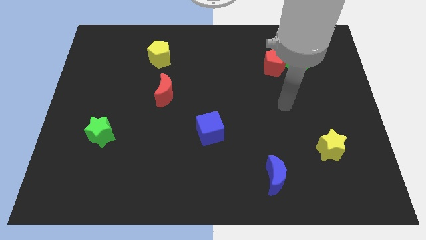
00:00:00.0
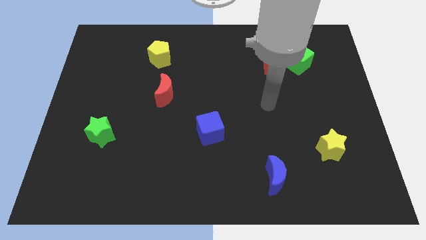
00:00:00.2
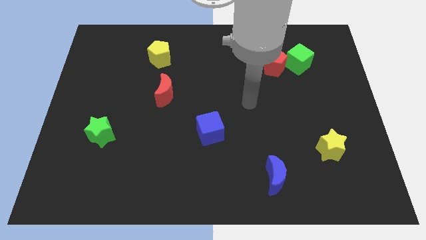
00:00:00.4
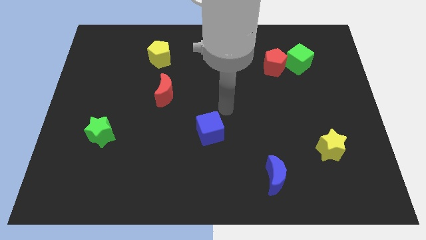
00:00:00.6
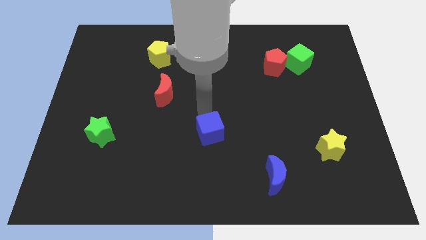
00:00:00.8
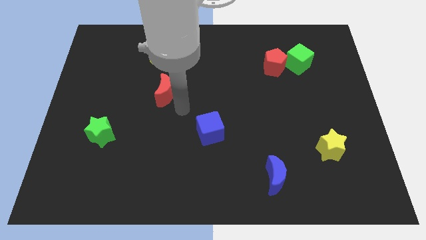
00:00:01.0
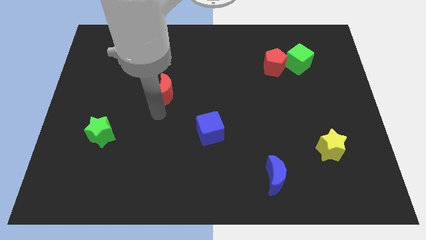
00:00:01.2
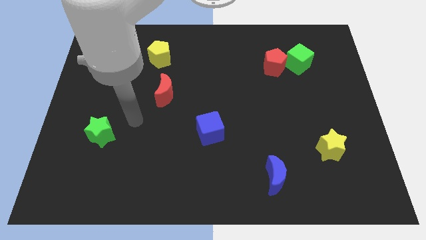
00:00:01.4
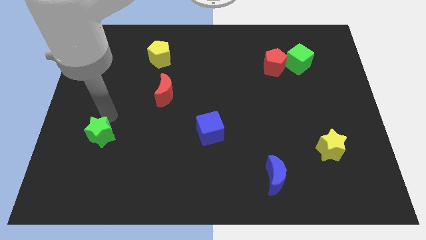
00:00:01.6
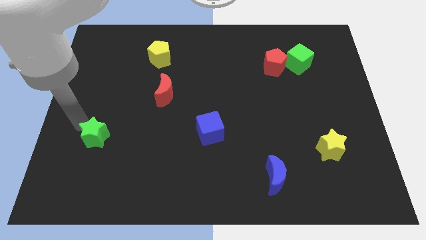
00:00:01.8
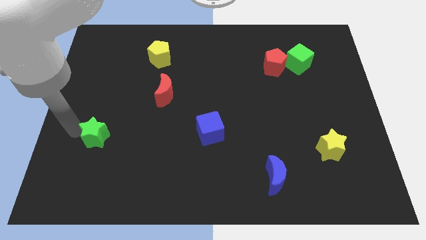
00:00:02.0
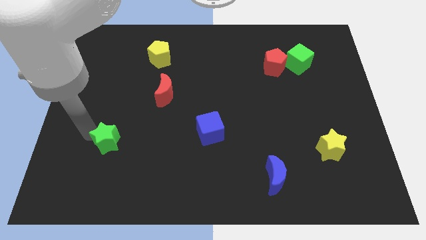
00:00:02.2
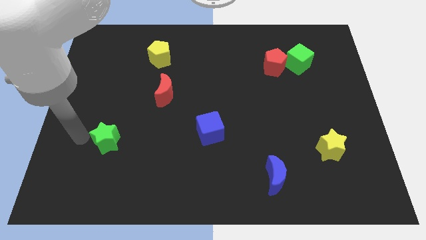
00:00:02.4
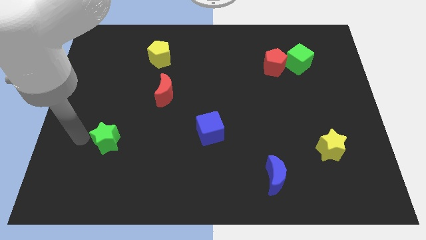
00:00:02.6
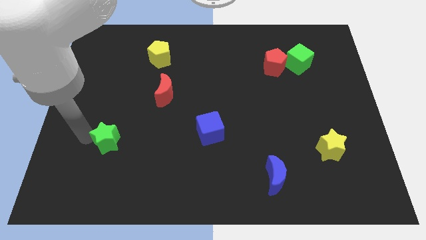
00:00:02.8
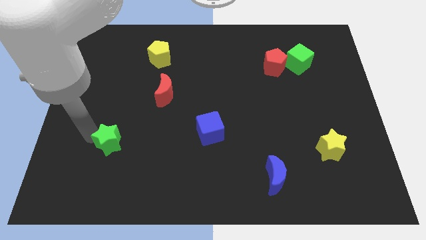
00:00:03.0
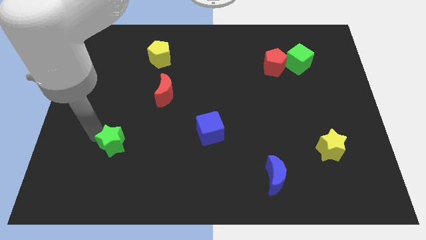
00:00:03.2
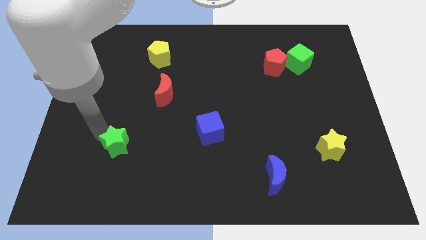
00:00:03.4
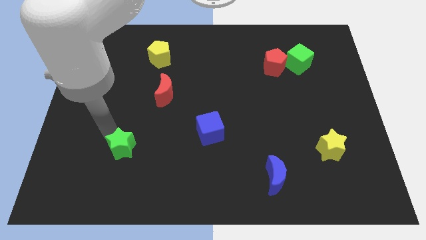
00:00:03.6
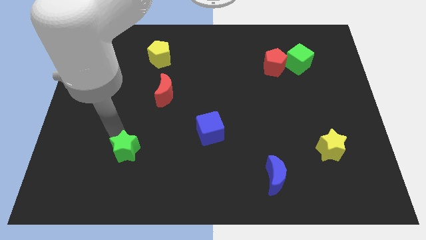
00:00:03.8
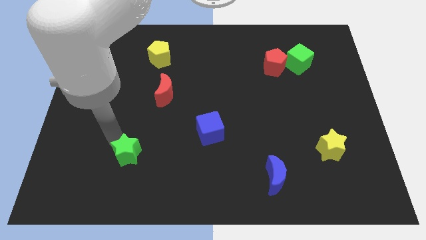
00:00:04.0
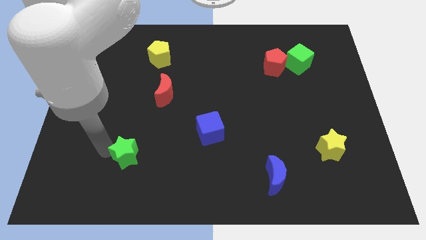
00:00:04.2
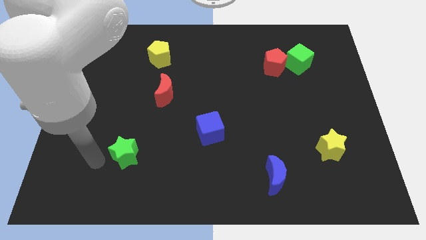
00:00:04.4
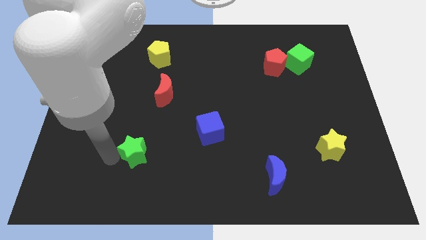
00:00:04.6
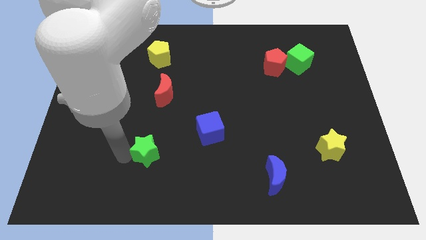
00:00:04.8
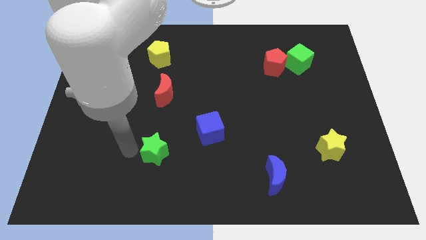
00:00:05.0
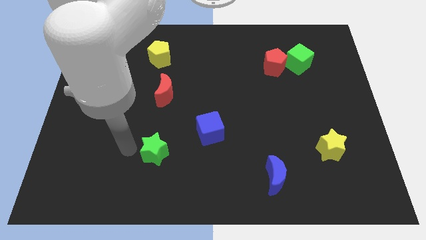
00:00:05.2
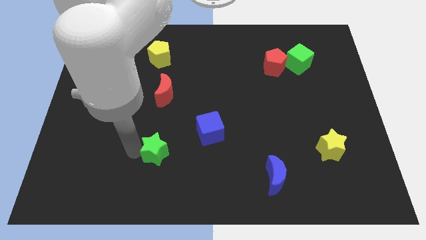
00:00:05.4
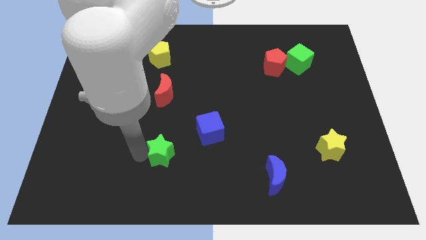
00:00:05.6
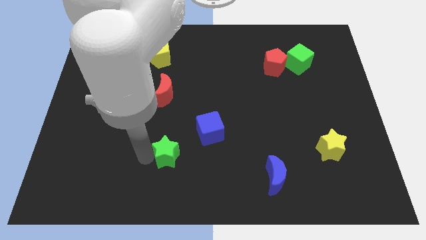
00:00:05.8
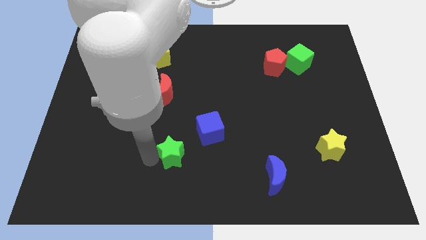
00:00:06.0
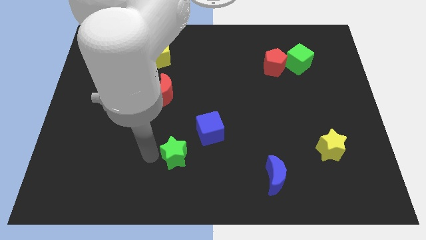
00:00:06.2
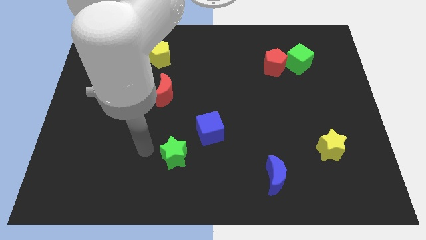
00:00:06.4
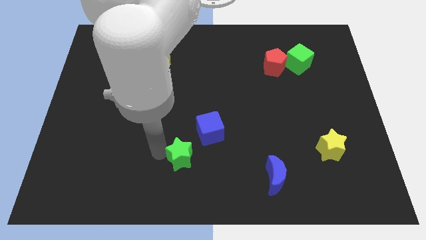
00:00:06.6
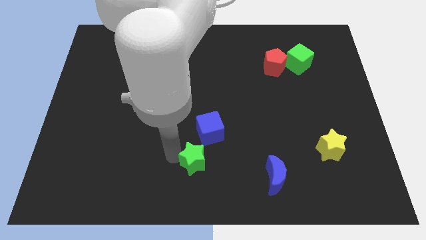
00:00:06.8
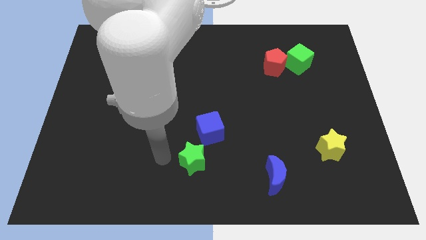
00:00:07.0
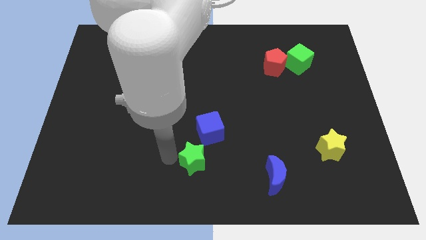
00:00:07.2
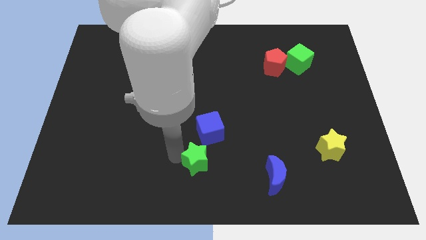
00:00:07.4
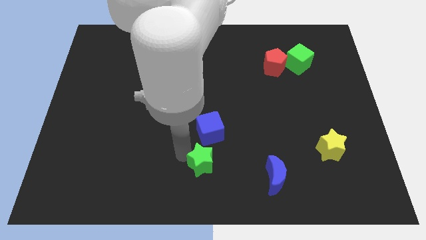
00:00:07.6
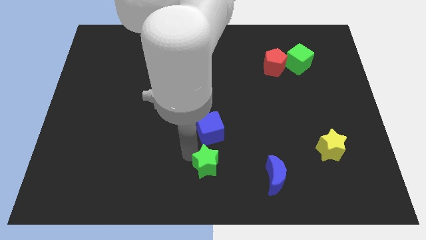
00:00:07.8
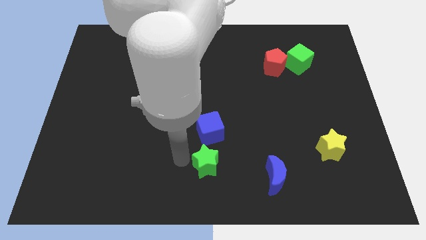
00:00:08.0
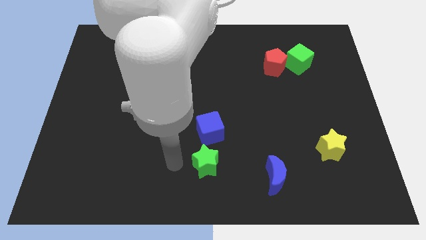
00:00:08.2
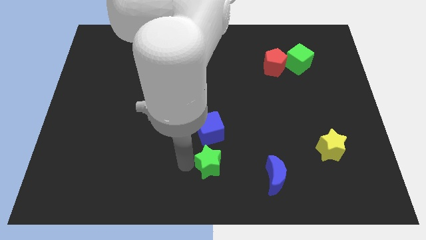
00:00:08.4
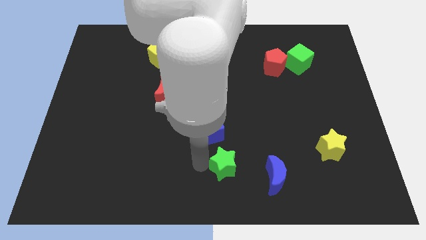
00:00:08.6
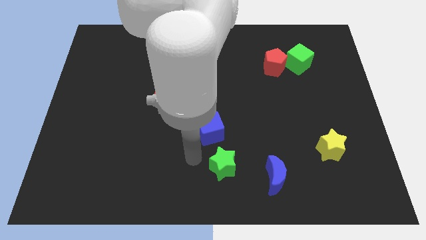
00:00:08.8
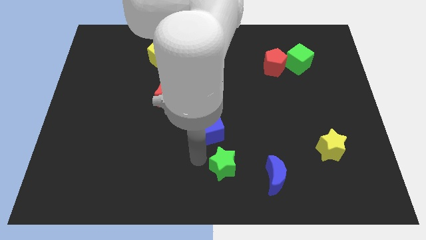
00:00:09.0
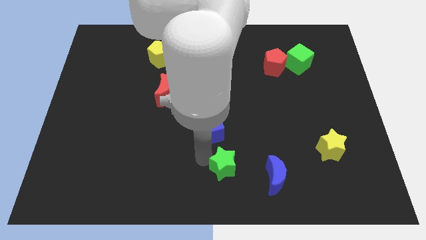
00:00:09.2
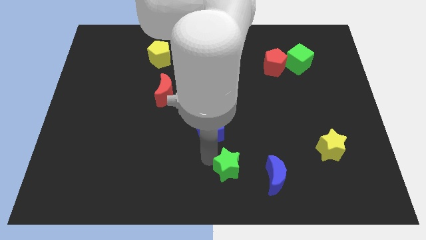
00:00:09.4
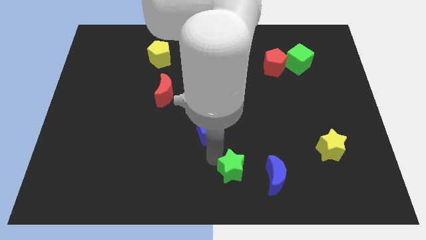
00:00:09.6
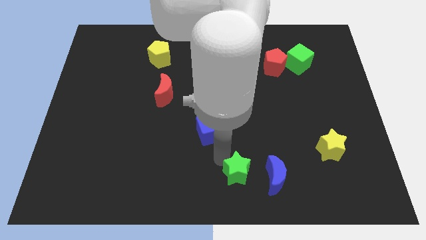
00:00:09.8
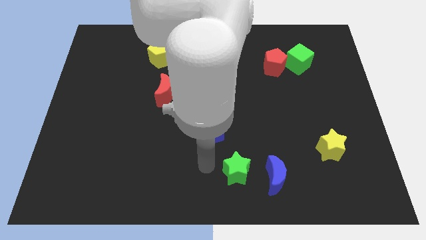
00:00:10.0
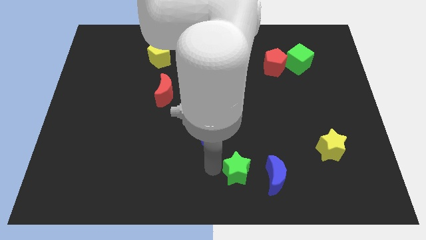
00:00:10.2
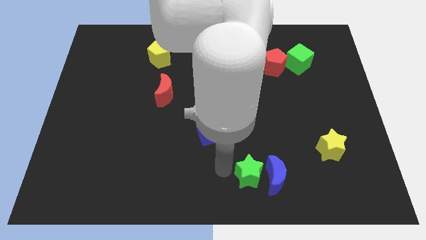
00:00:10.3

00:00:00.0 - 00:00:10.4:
slide the green star next to the blue moon

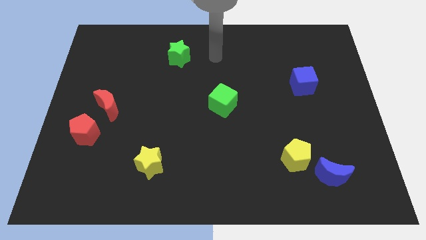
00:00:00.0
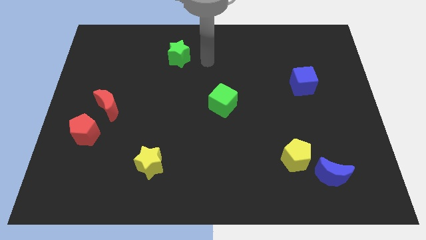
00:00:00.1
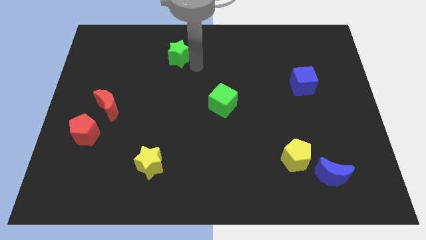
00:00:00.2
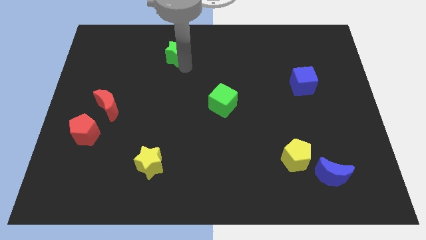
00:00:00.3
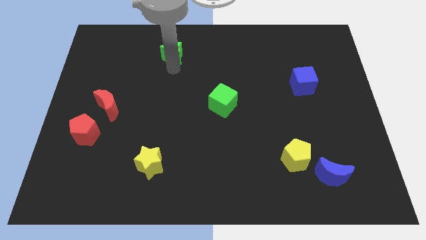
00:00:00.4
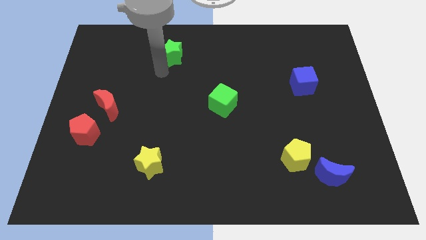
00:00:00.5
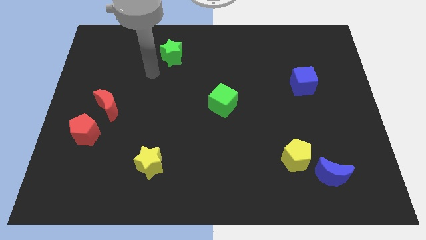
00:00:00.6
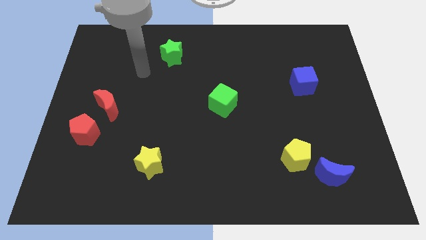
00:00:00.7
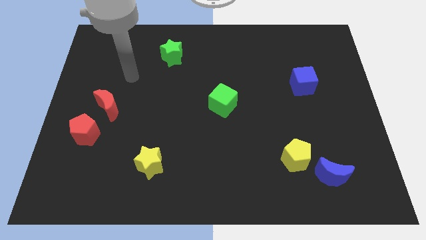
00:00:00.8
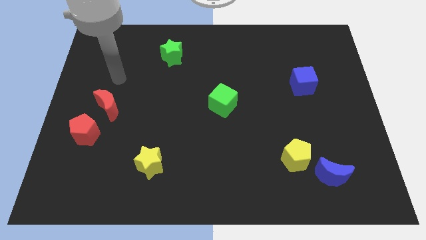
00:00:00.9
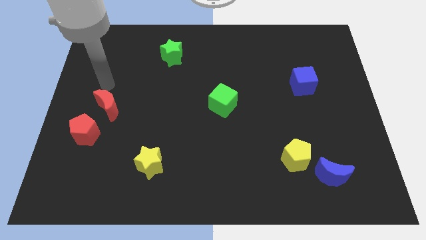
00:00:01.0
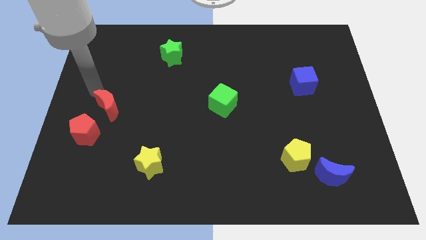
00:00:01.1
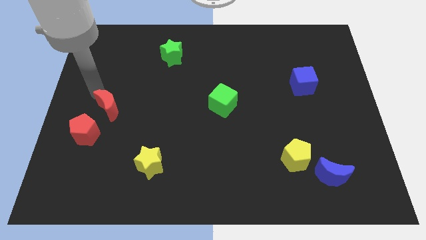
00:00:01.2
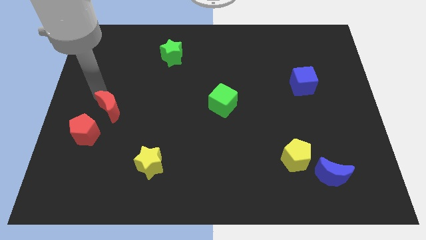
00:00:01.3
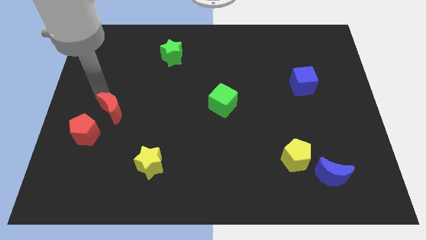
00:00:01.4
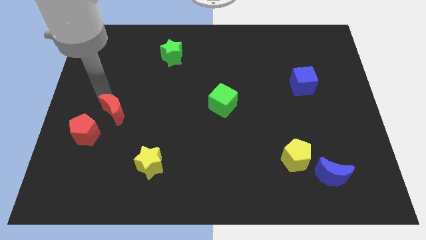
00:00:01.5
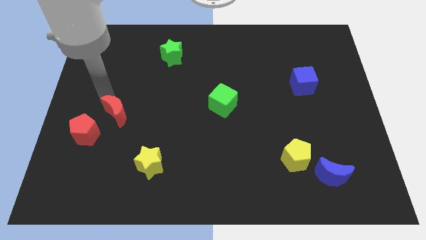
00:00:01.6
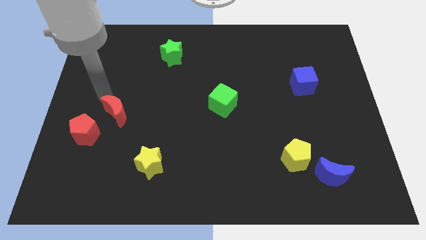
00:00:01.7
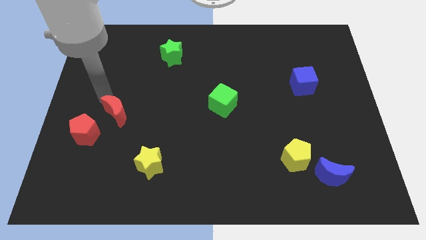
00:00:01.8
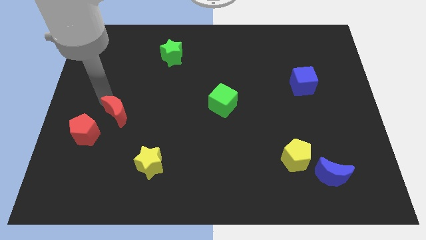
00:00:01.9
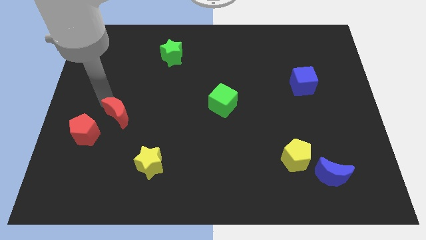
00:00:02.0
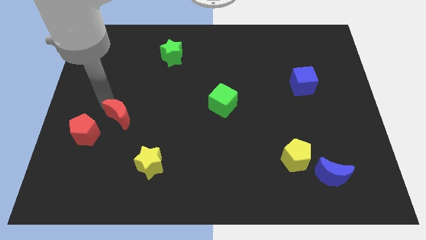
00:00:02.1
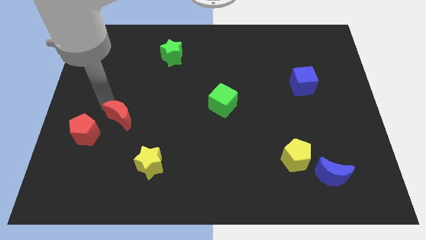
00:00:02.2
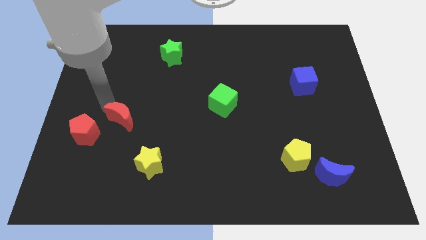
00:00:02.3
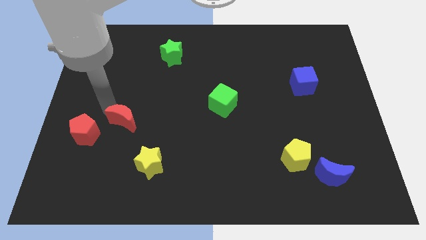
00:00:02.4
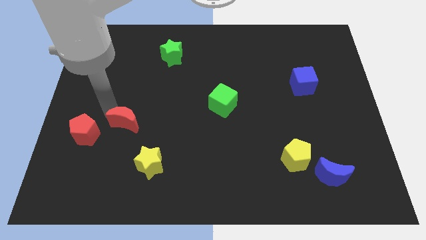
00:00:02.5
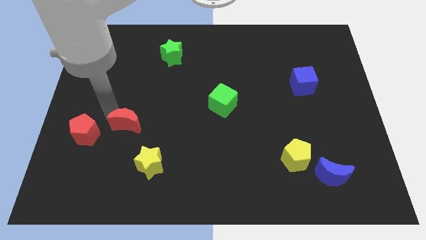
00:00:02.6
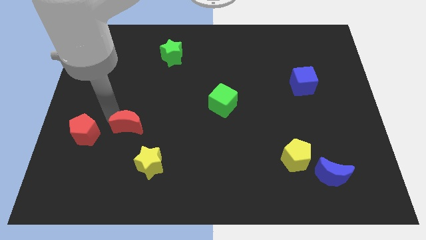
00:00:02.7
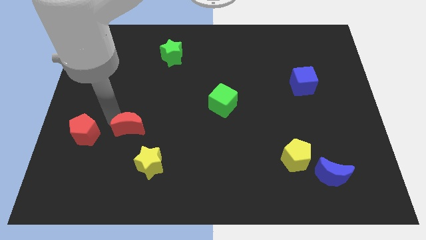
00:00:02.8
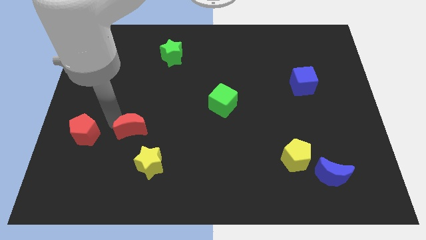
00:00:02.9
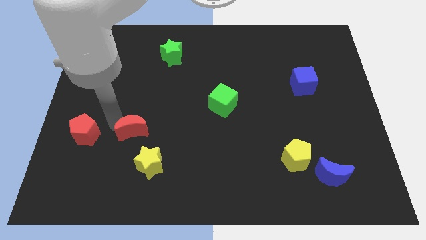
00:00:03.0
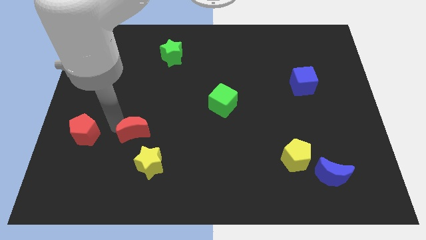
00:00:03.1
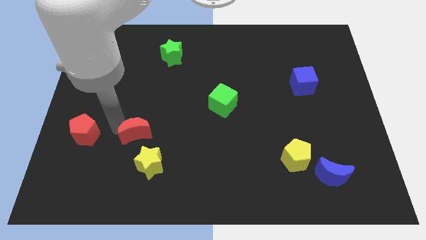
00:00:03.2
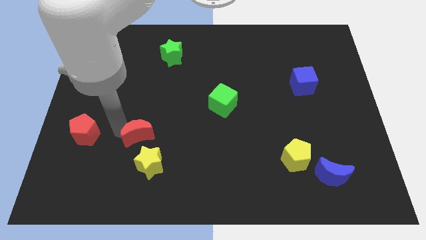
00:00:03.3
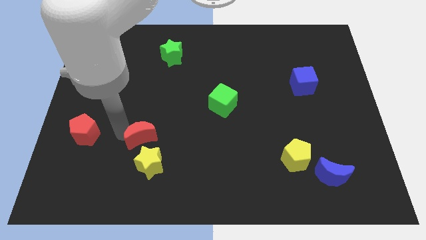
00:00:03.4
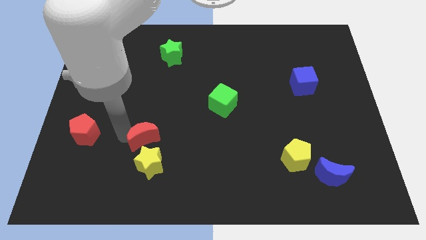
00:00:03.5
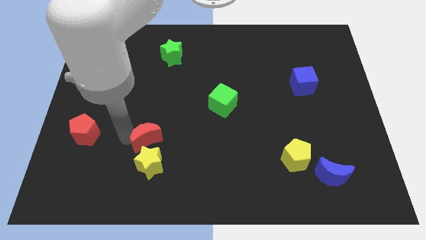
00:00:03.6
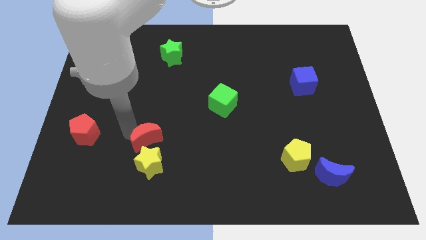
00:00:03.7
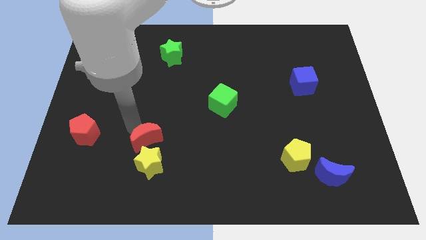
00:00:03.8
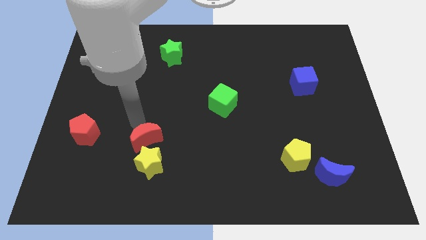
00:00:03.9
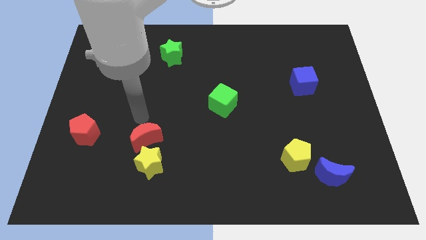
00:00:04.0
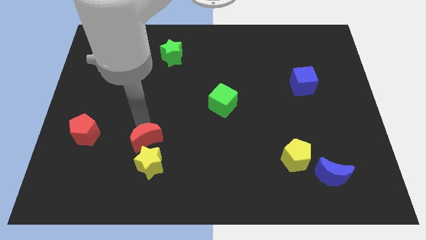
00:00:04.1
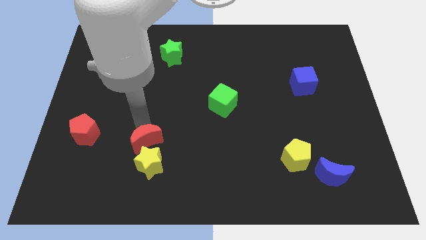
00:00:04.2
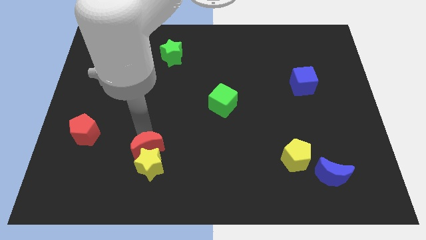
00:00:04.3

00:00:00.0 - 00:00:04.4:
push the red moon next to the yellow star
